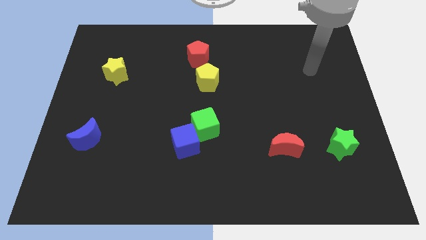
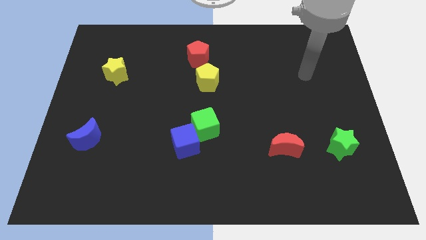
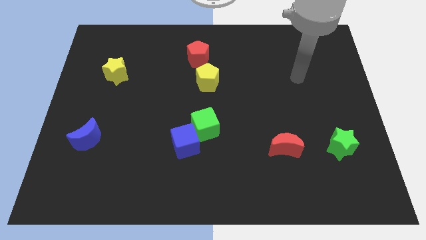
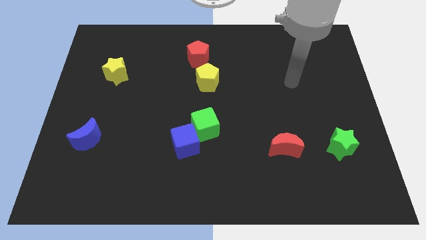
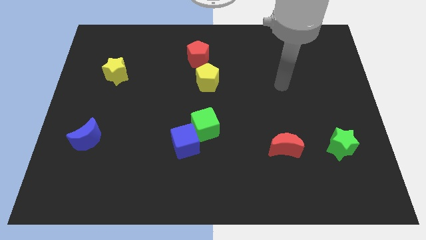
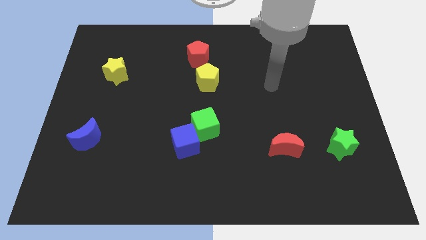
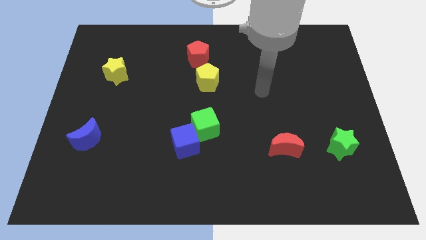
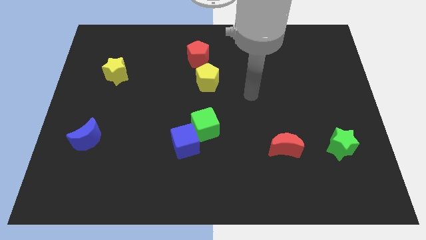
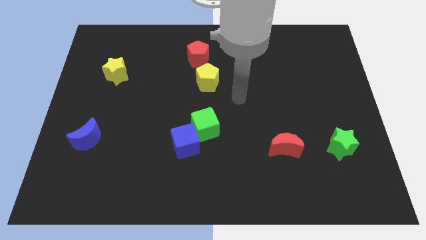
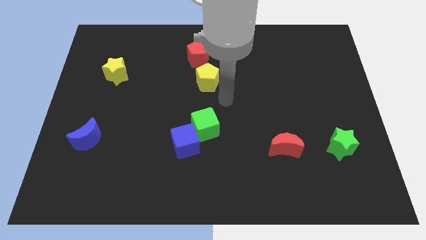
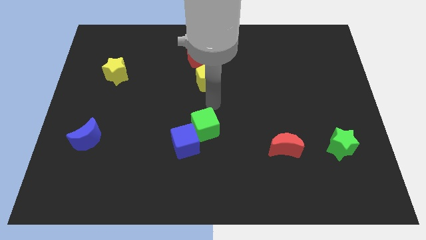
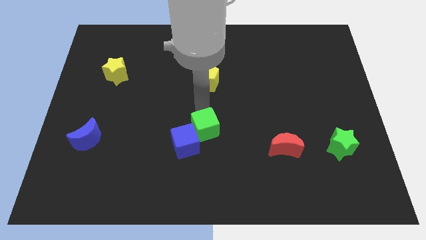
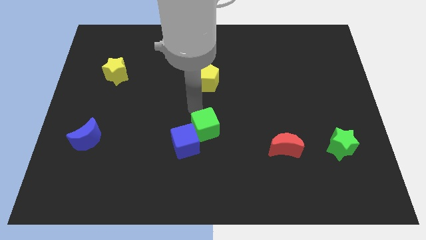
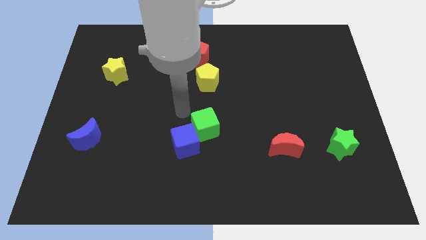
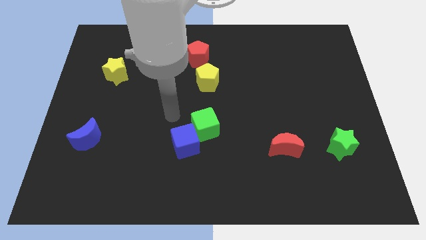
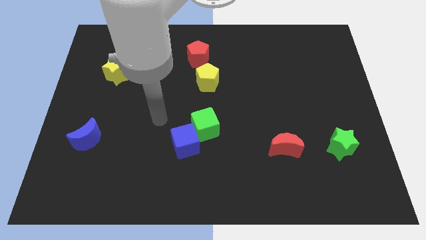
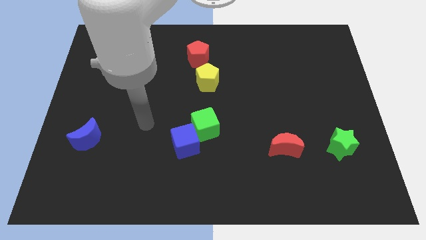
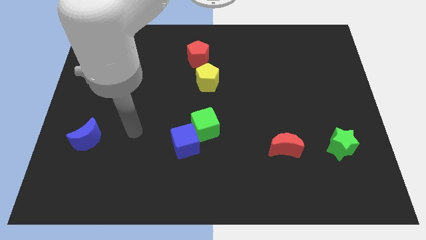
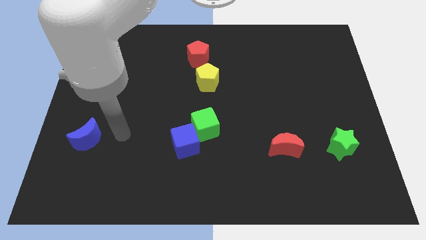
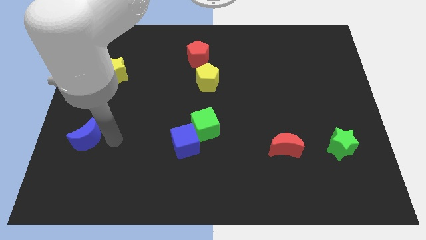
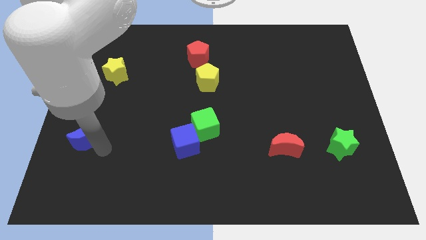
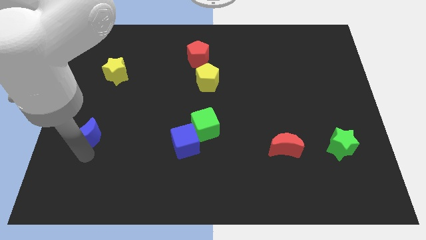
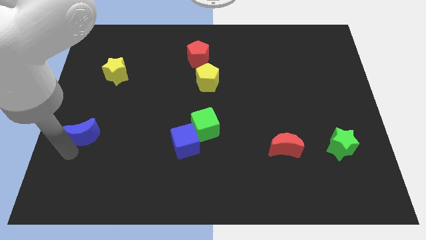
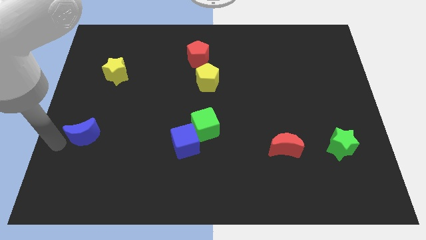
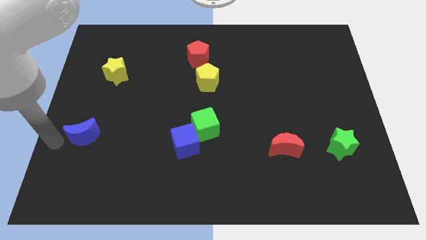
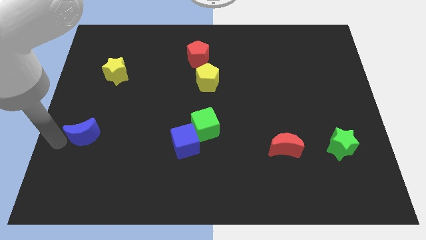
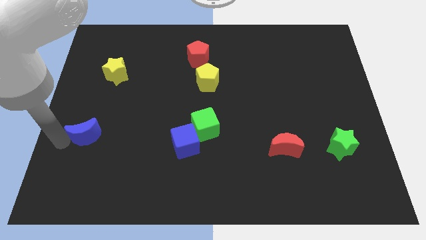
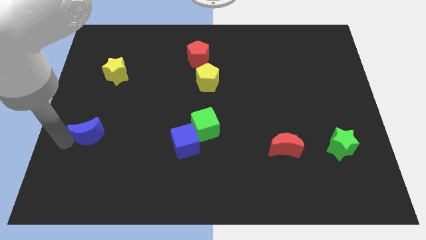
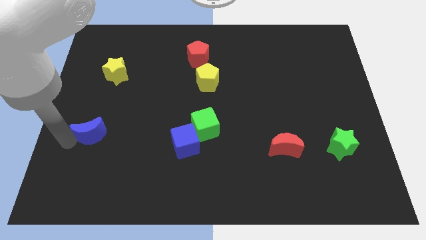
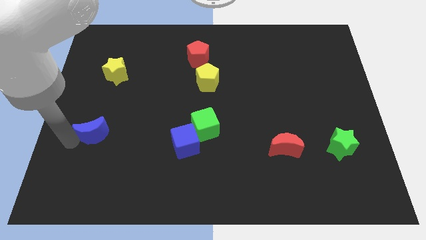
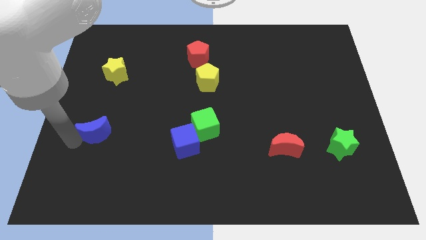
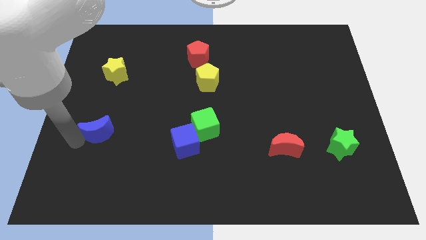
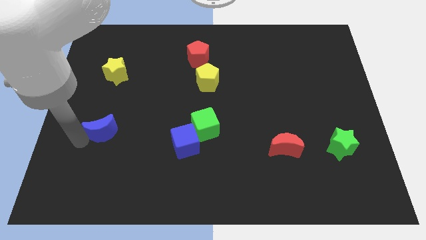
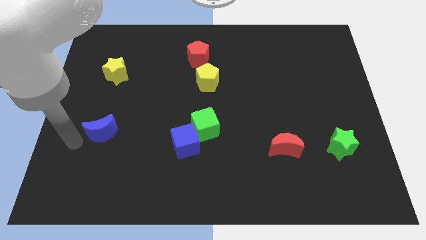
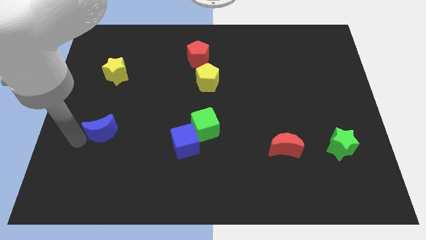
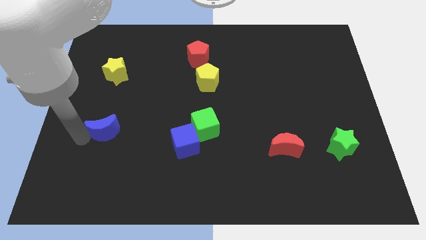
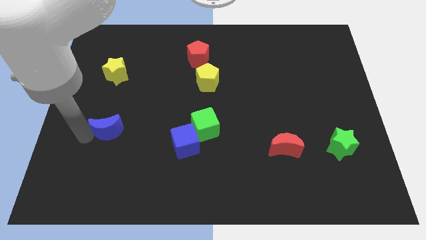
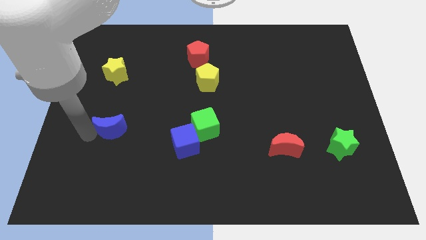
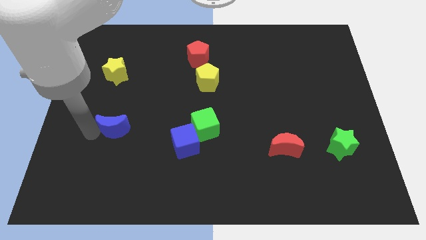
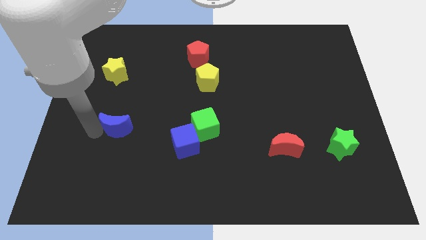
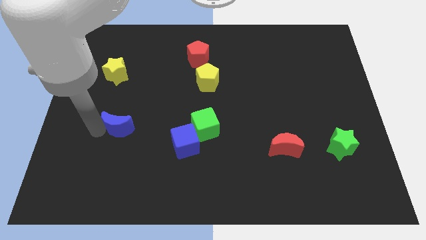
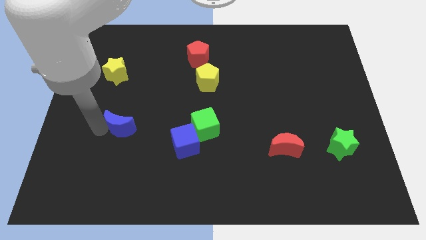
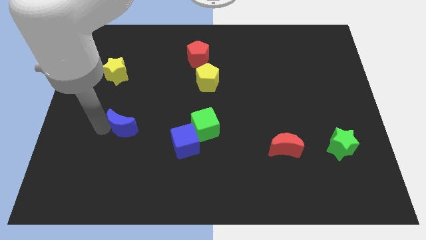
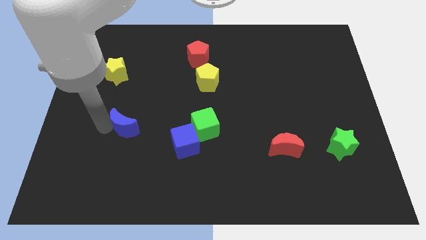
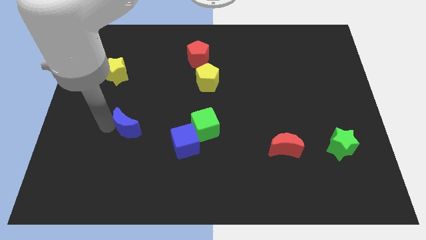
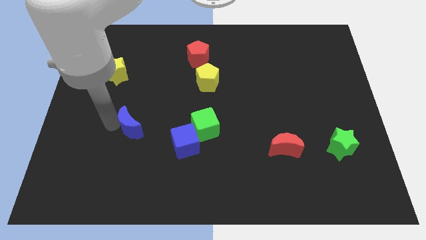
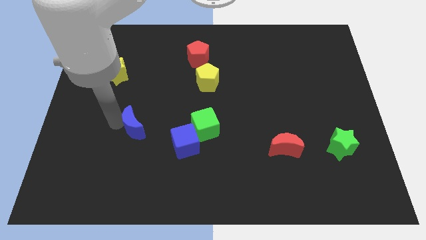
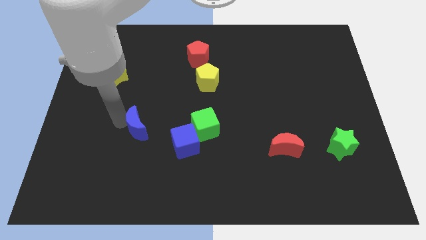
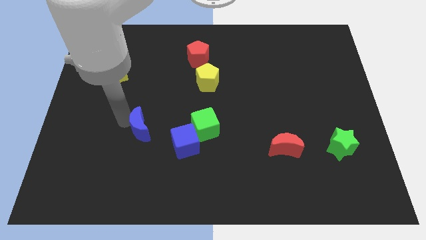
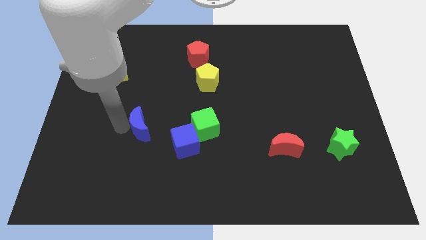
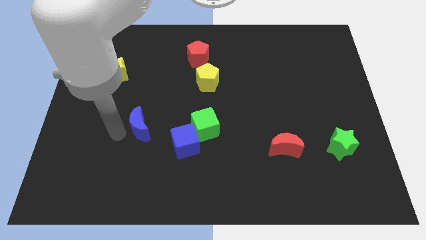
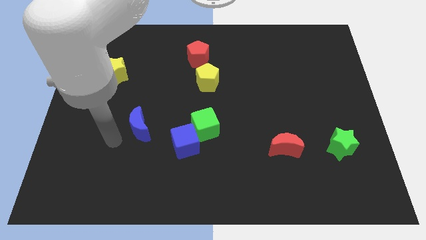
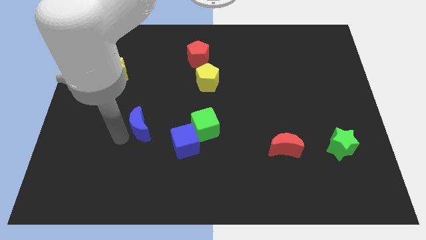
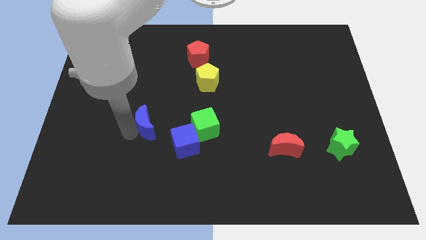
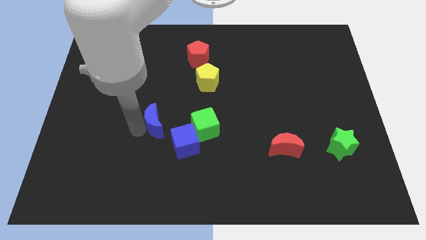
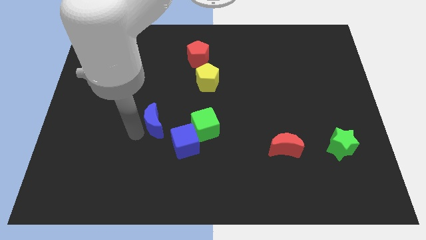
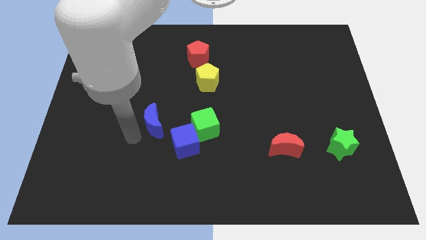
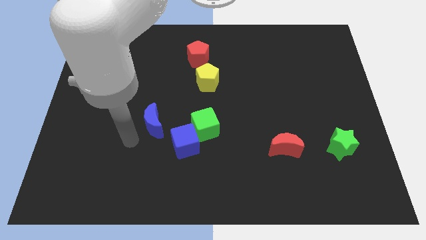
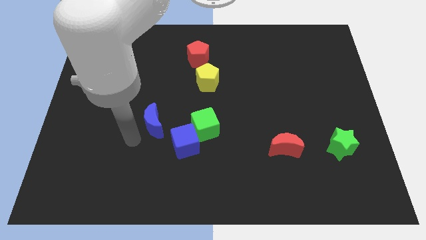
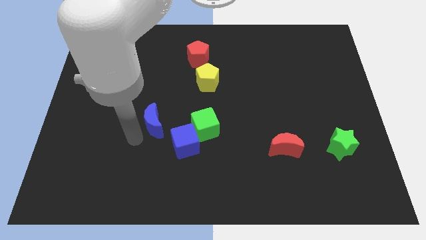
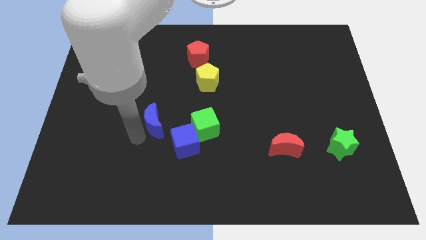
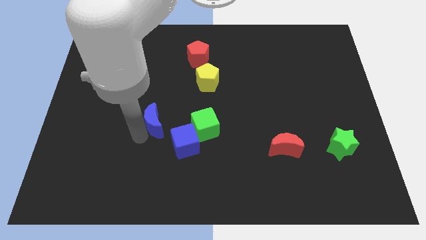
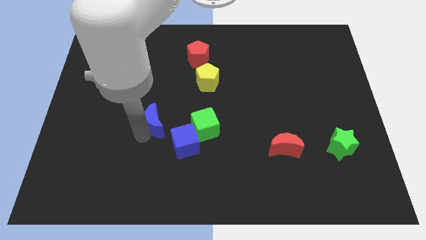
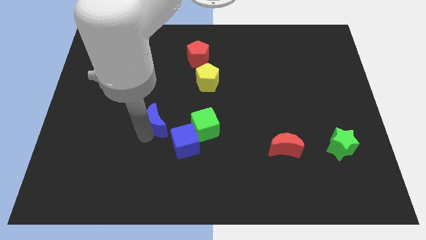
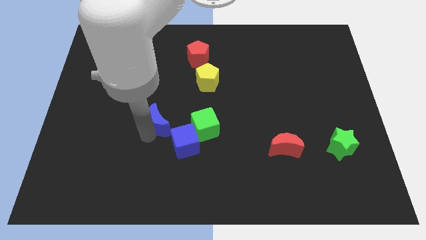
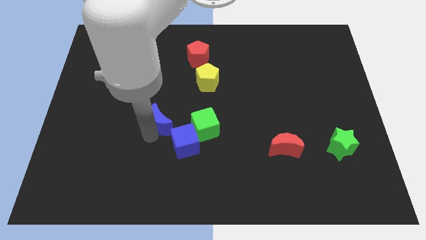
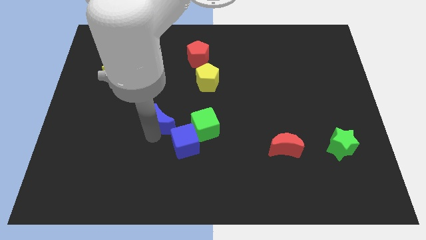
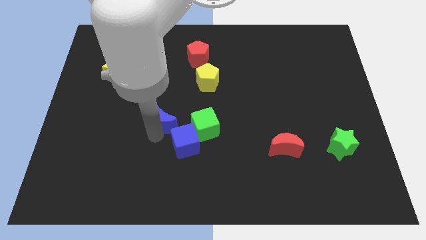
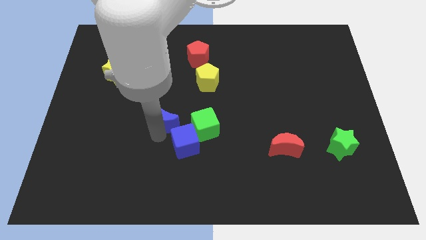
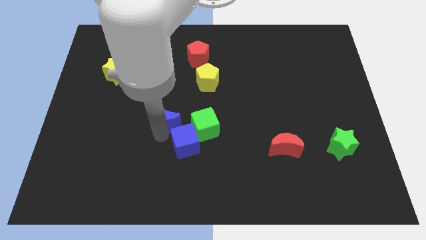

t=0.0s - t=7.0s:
slide the blue moon to the top of the blue cube
